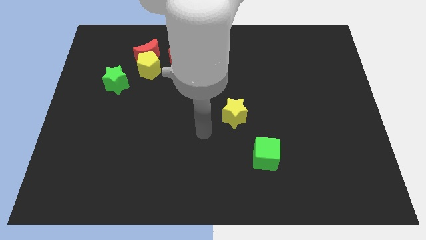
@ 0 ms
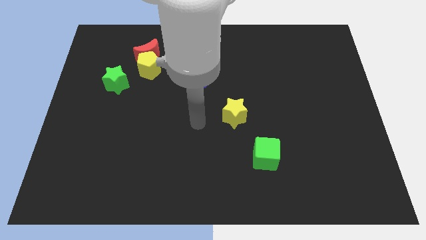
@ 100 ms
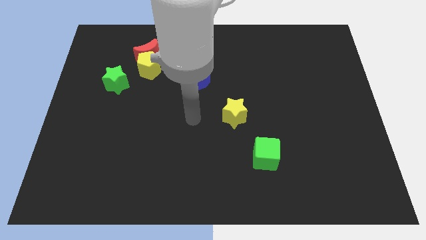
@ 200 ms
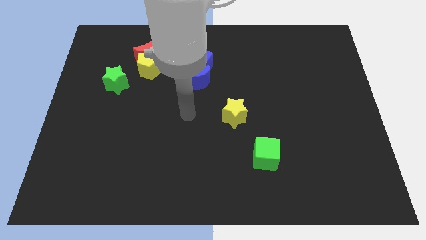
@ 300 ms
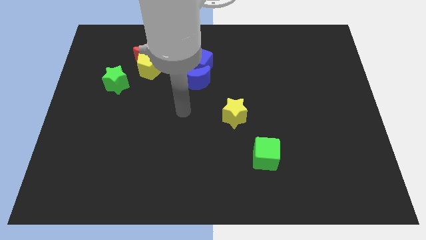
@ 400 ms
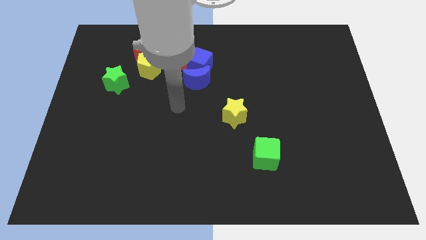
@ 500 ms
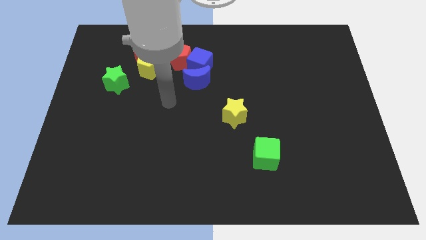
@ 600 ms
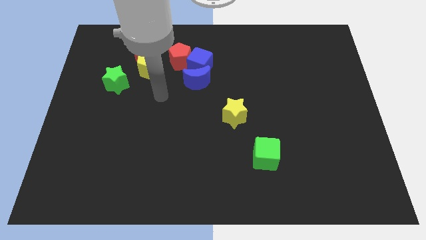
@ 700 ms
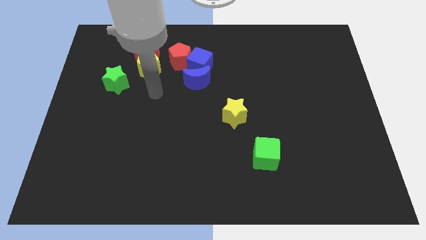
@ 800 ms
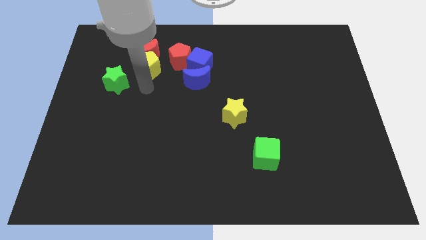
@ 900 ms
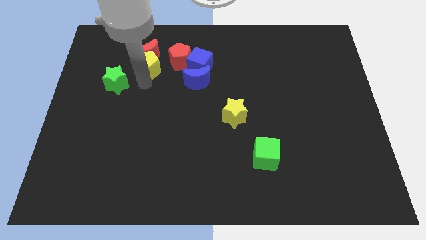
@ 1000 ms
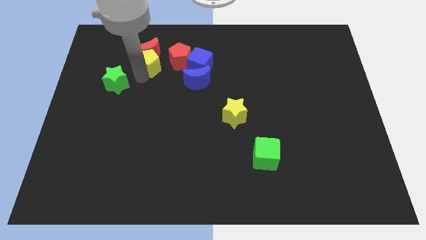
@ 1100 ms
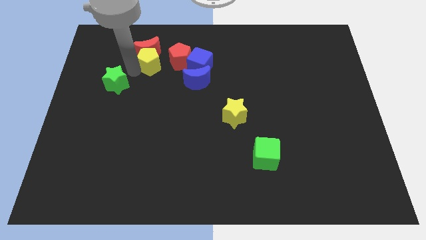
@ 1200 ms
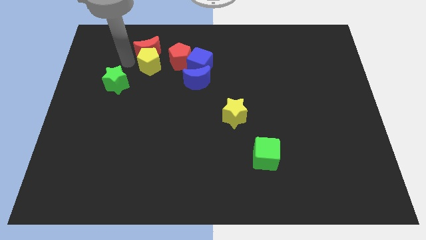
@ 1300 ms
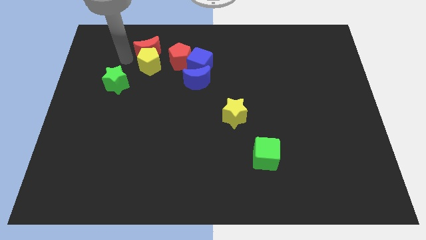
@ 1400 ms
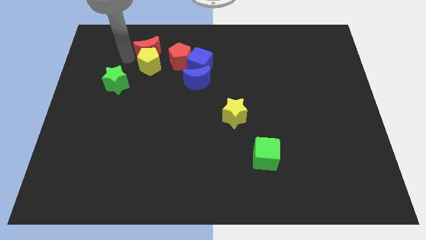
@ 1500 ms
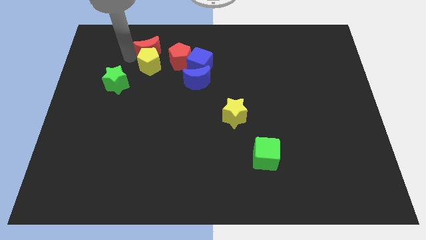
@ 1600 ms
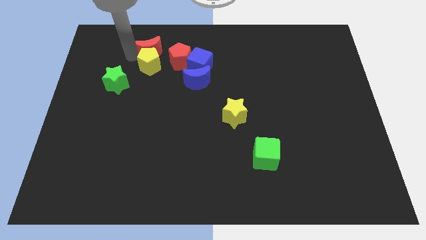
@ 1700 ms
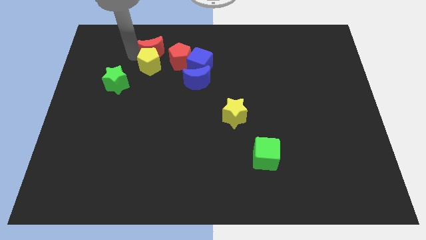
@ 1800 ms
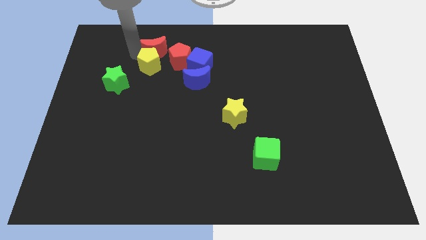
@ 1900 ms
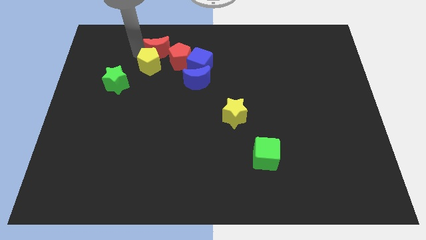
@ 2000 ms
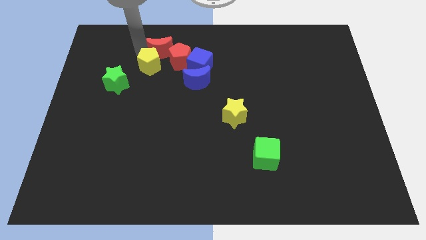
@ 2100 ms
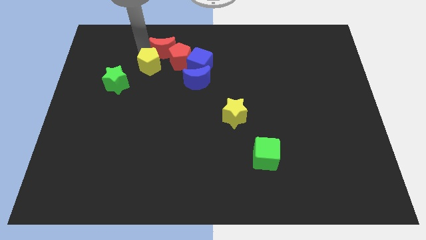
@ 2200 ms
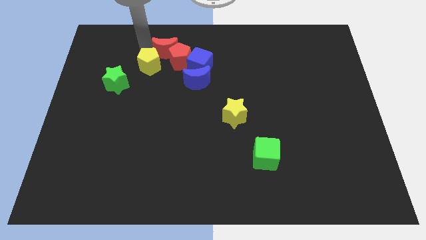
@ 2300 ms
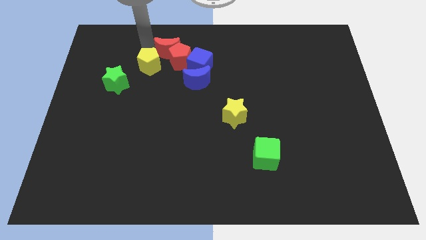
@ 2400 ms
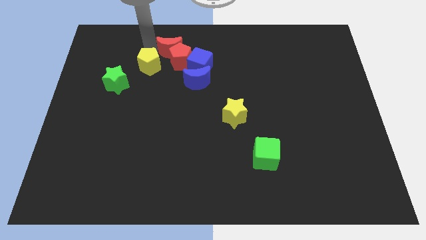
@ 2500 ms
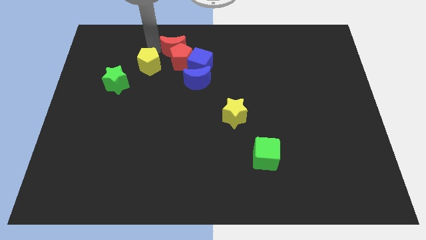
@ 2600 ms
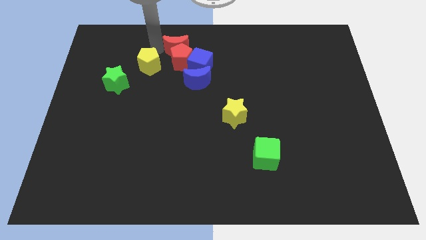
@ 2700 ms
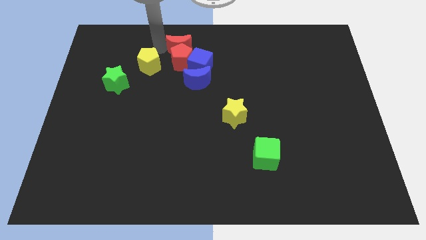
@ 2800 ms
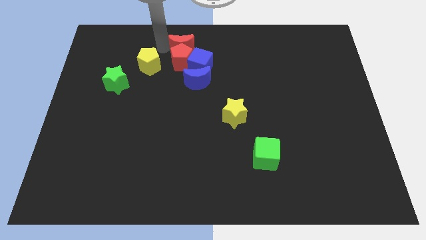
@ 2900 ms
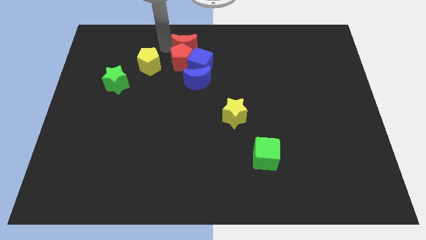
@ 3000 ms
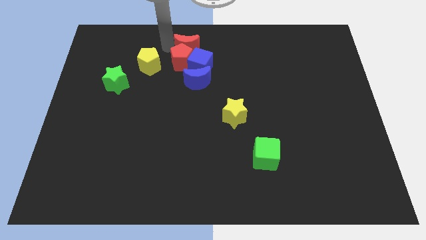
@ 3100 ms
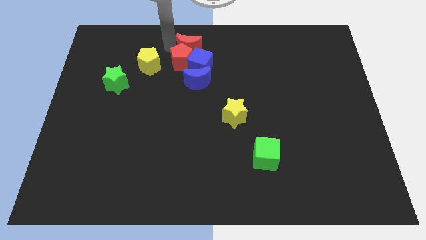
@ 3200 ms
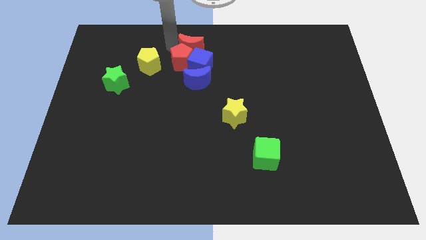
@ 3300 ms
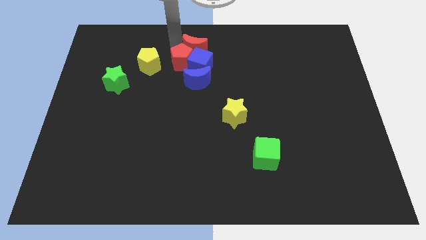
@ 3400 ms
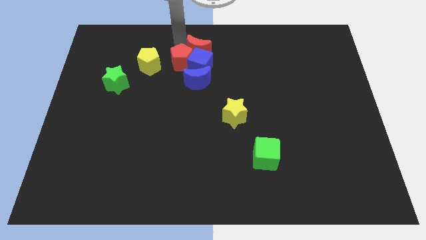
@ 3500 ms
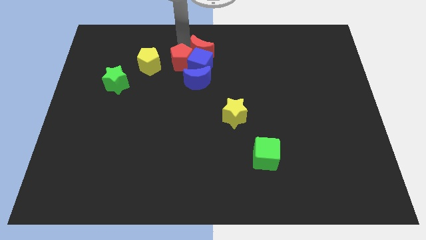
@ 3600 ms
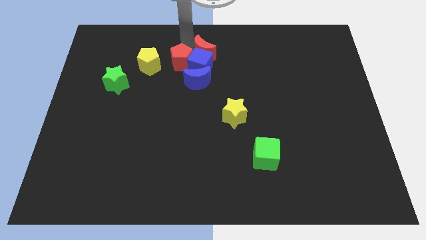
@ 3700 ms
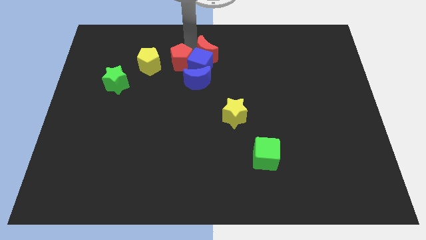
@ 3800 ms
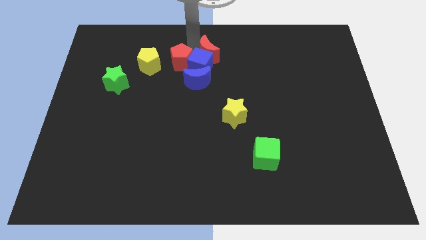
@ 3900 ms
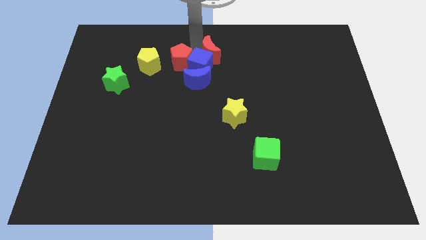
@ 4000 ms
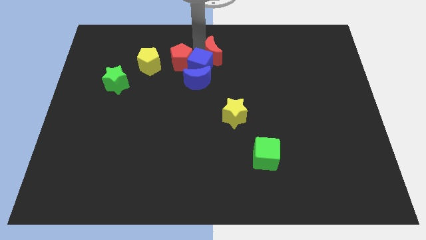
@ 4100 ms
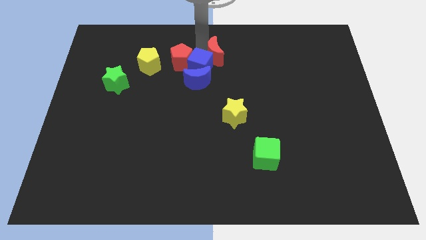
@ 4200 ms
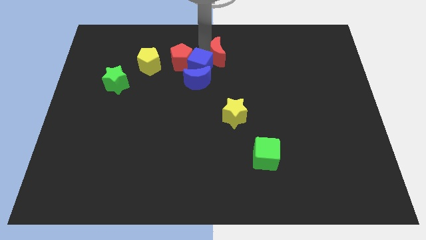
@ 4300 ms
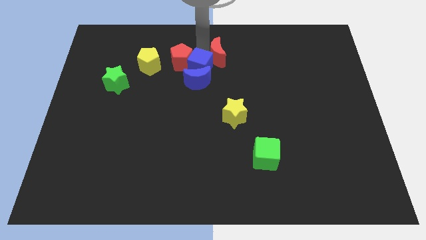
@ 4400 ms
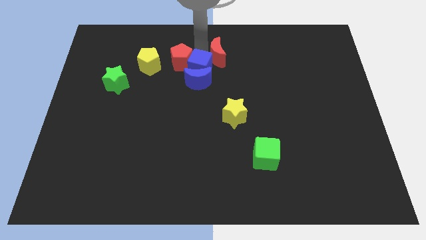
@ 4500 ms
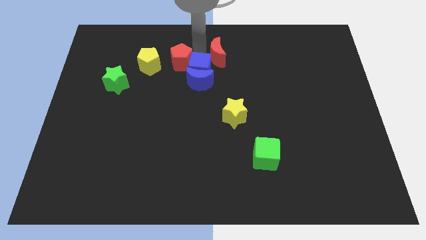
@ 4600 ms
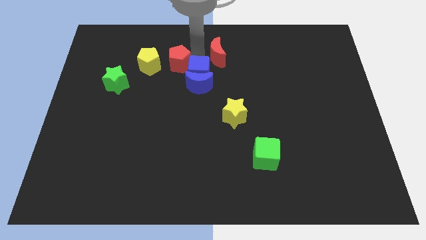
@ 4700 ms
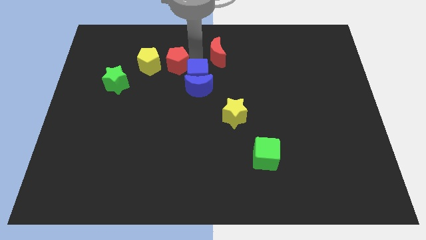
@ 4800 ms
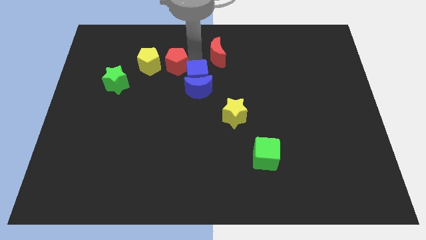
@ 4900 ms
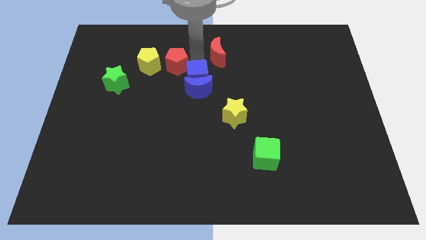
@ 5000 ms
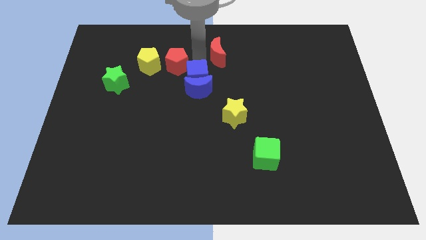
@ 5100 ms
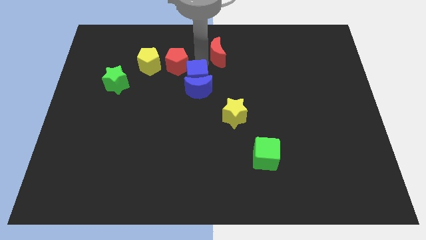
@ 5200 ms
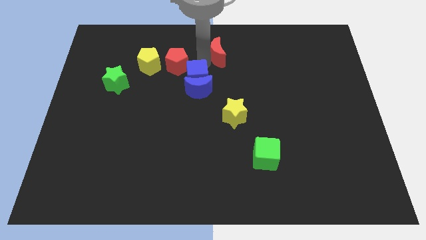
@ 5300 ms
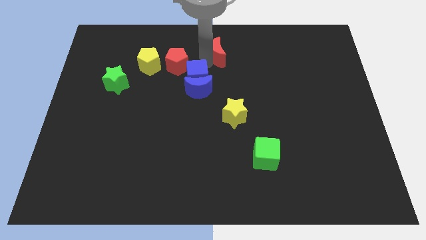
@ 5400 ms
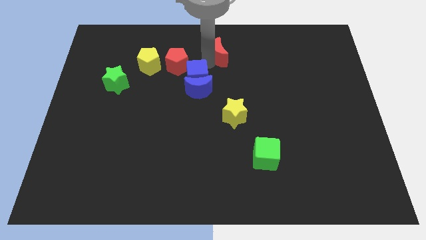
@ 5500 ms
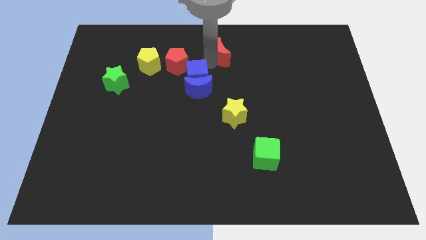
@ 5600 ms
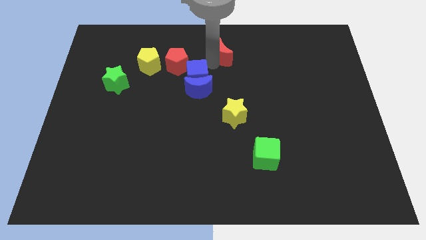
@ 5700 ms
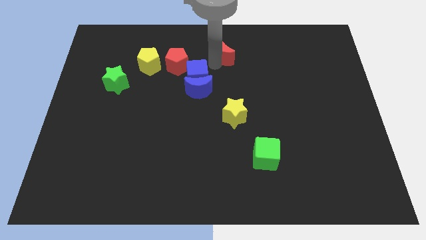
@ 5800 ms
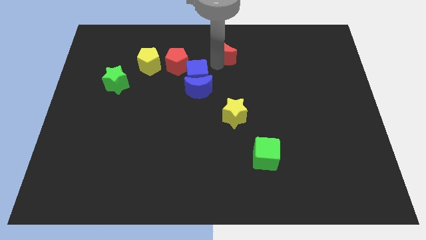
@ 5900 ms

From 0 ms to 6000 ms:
move the red moon to the right

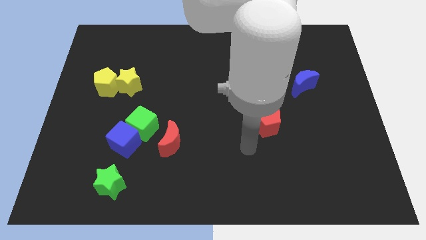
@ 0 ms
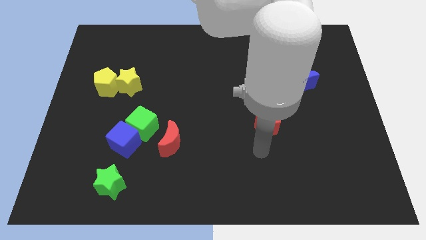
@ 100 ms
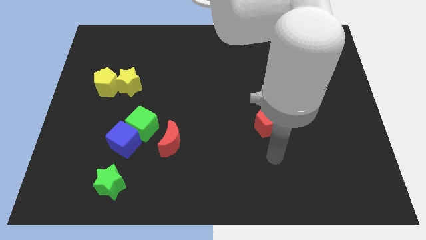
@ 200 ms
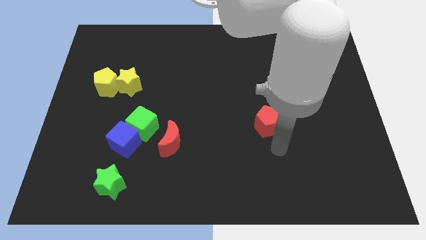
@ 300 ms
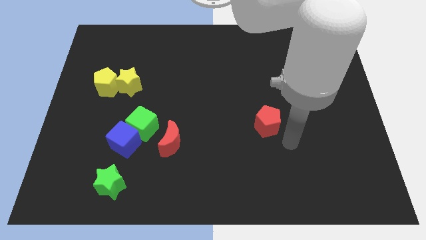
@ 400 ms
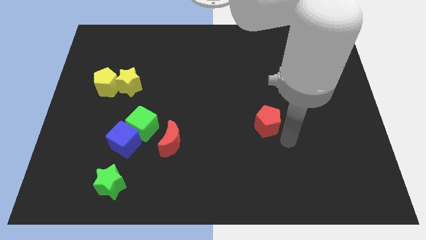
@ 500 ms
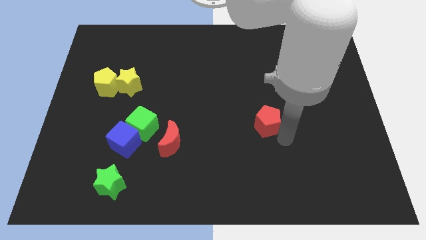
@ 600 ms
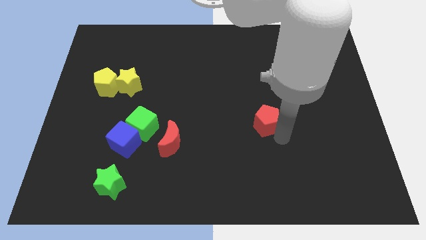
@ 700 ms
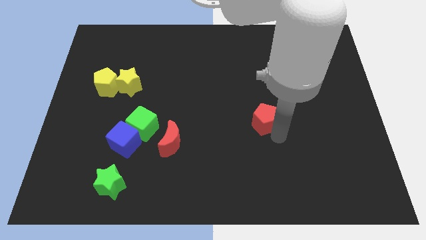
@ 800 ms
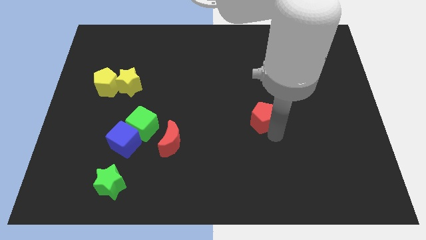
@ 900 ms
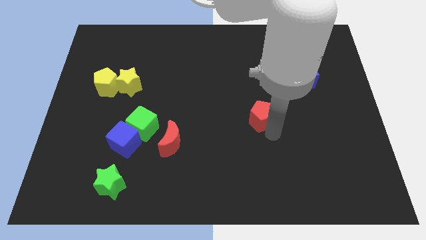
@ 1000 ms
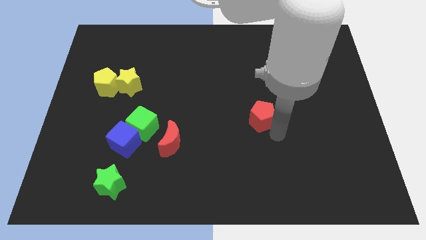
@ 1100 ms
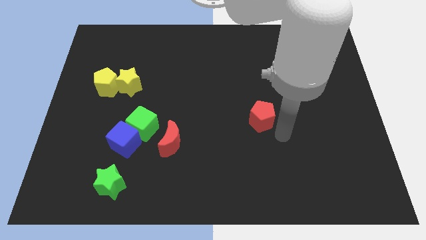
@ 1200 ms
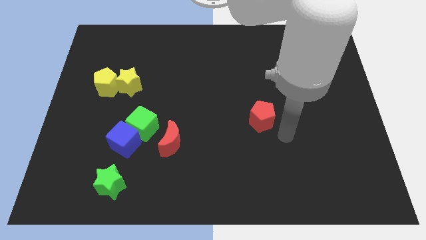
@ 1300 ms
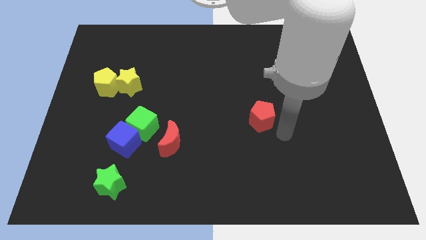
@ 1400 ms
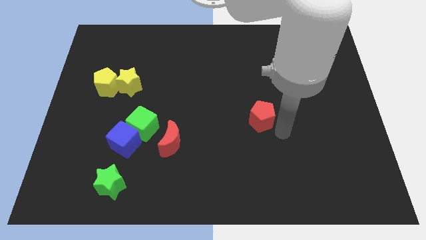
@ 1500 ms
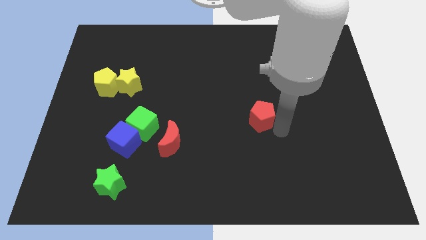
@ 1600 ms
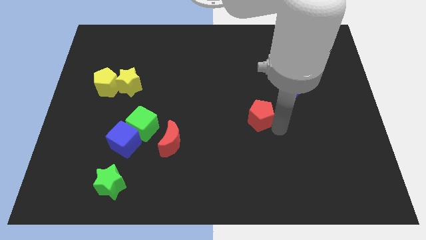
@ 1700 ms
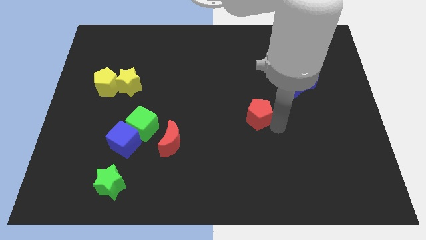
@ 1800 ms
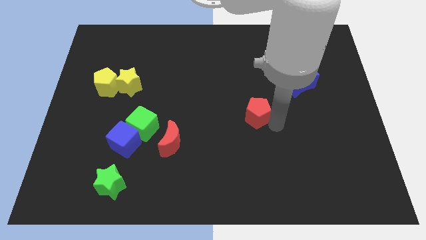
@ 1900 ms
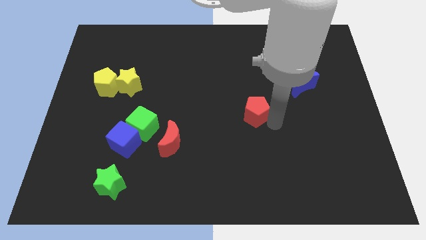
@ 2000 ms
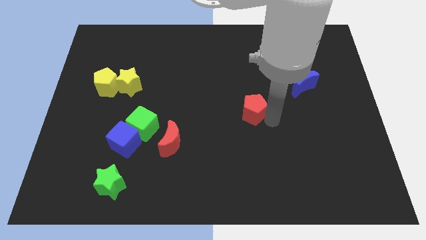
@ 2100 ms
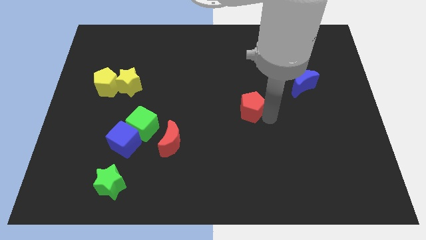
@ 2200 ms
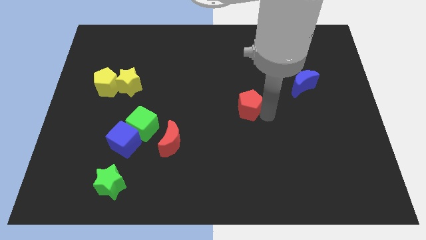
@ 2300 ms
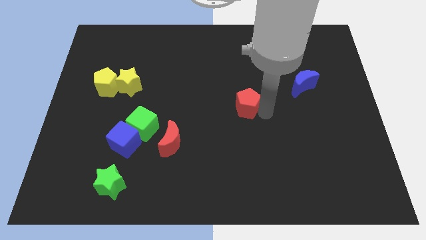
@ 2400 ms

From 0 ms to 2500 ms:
slide the red pentagon slightly up and to the left

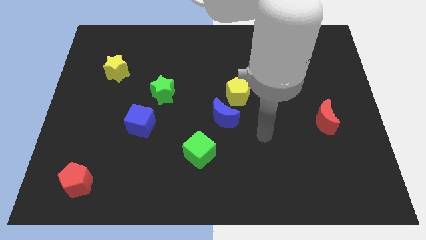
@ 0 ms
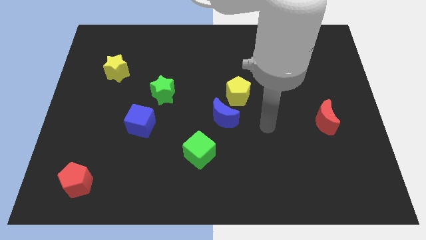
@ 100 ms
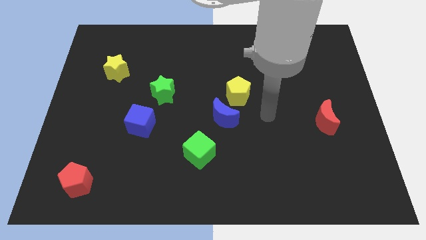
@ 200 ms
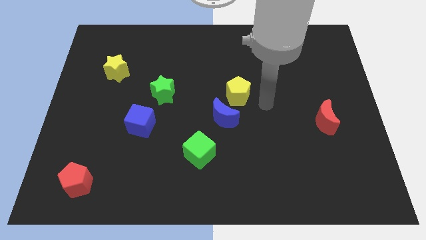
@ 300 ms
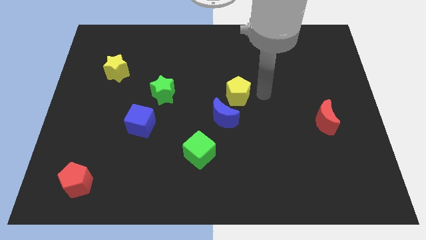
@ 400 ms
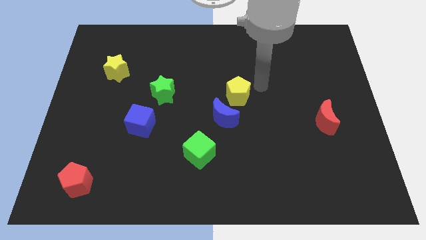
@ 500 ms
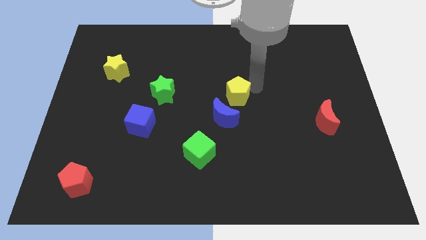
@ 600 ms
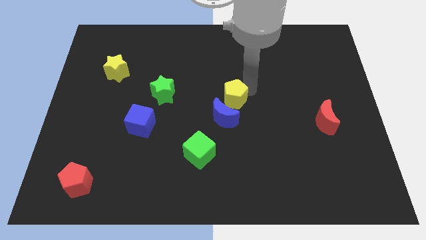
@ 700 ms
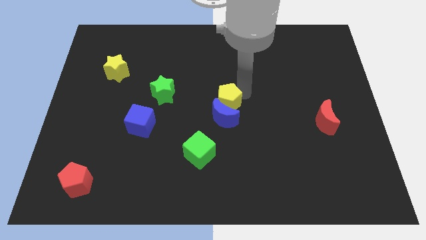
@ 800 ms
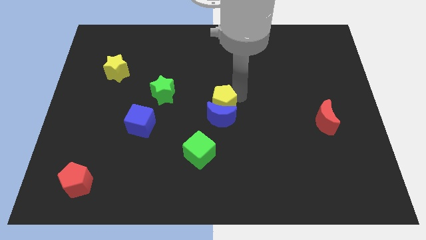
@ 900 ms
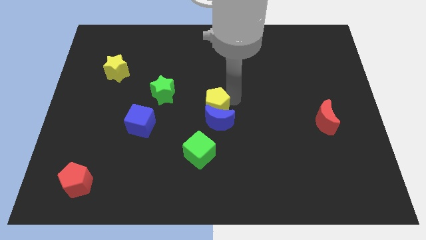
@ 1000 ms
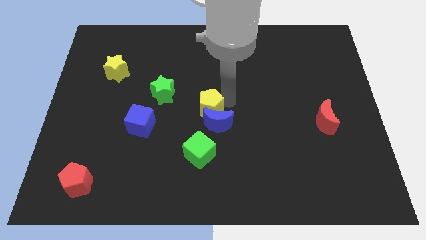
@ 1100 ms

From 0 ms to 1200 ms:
slightly move the yellow pentagon diagonally down and left
